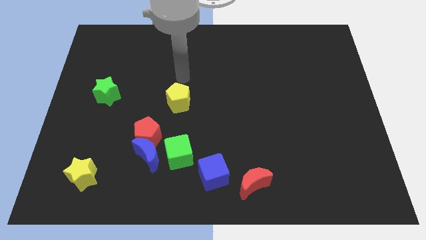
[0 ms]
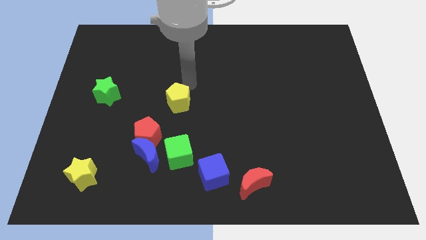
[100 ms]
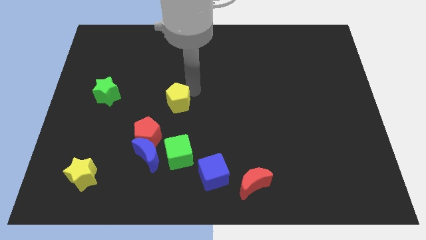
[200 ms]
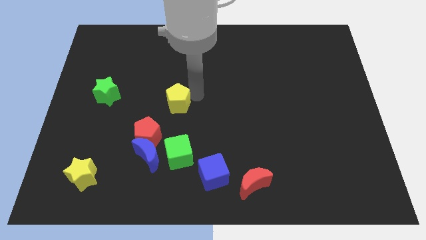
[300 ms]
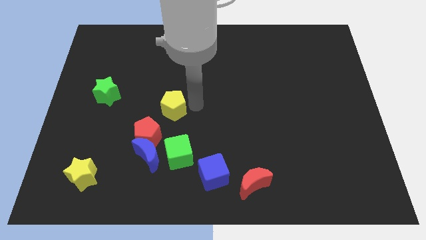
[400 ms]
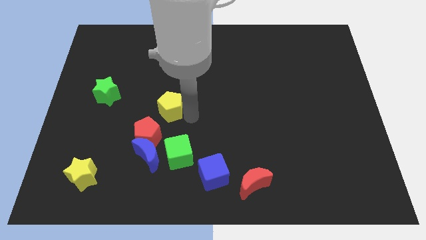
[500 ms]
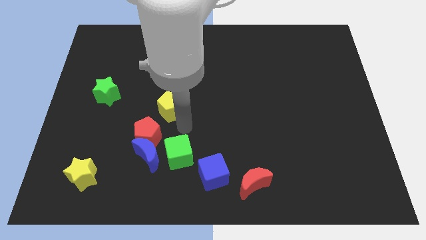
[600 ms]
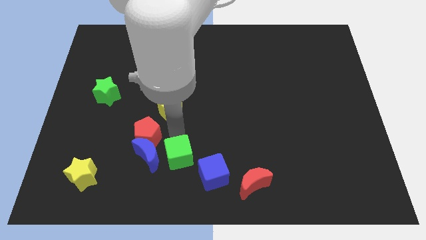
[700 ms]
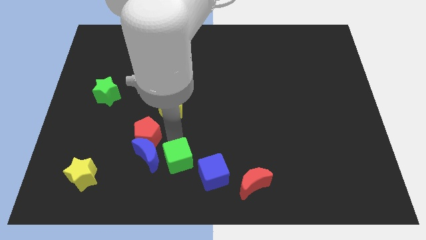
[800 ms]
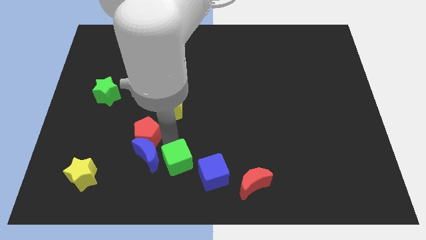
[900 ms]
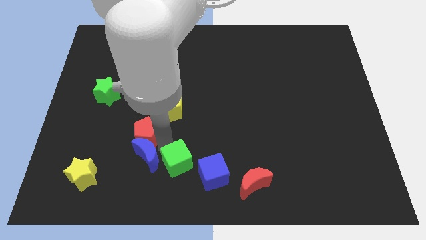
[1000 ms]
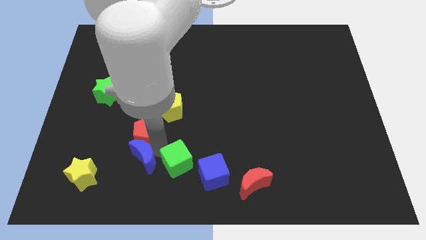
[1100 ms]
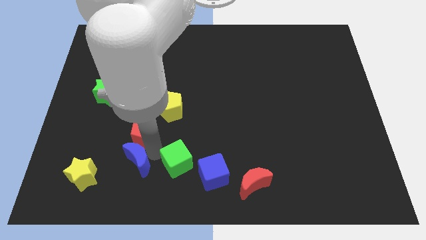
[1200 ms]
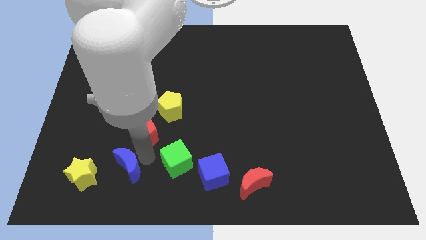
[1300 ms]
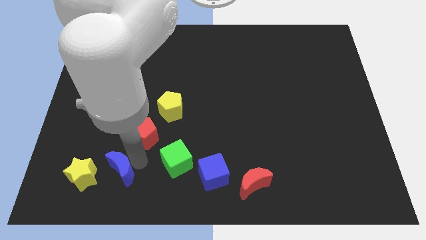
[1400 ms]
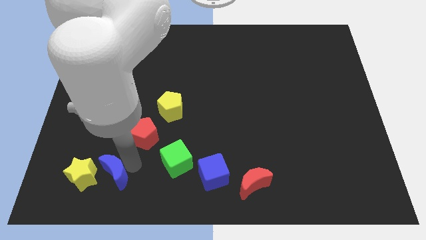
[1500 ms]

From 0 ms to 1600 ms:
pull the blue moon apart from the red pentagon and green cube

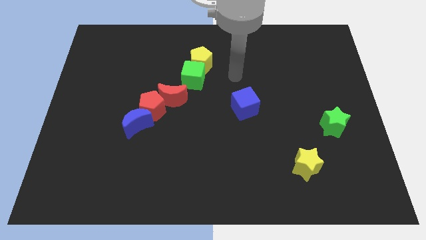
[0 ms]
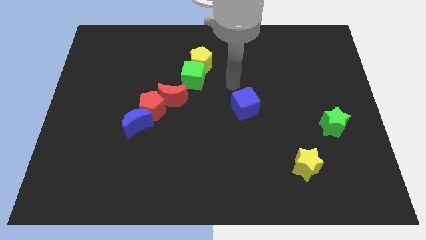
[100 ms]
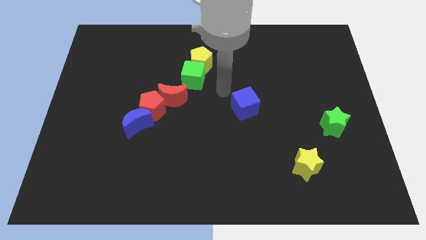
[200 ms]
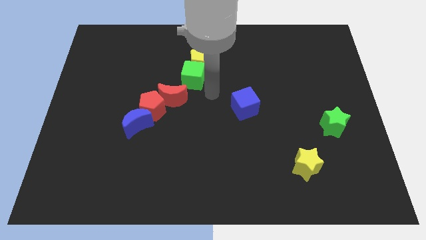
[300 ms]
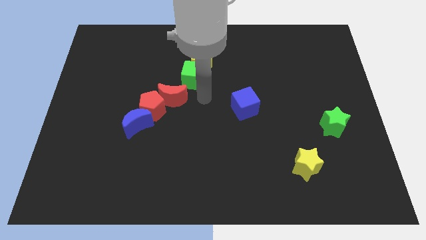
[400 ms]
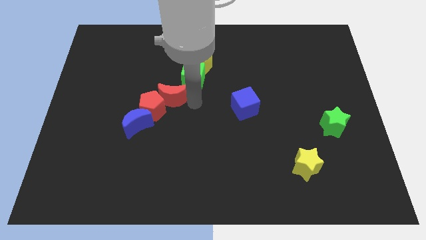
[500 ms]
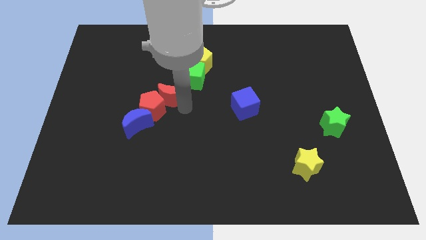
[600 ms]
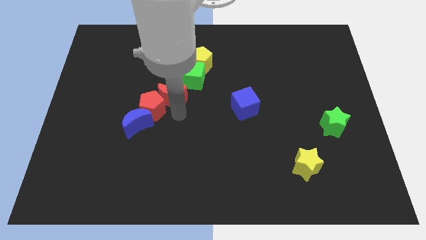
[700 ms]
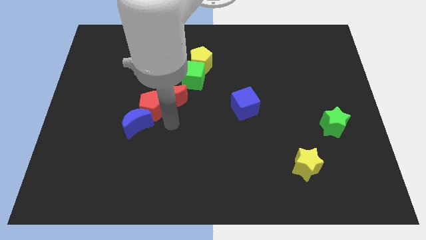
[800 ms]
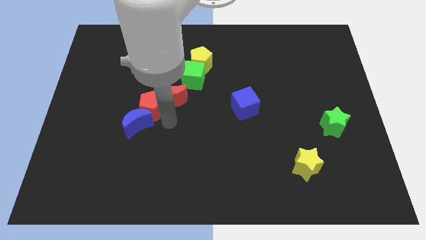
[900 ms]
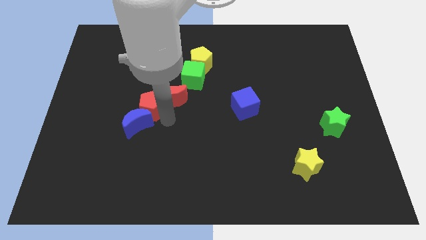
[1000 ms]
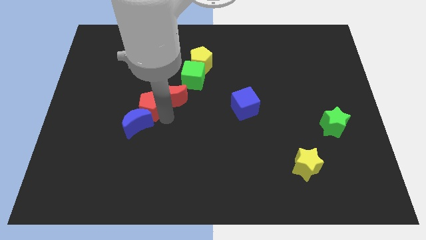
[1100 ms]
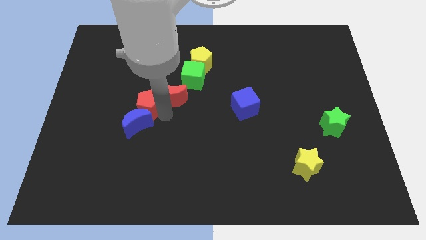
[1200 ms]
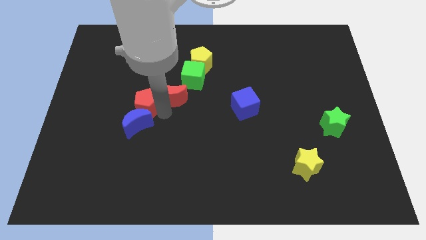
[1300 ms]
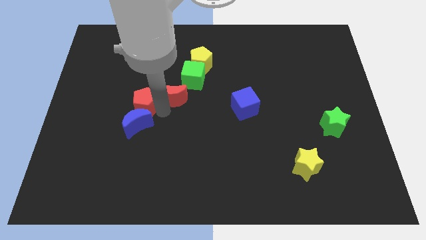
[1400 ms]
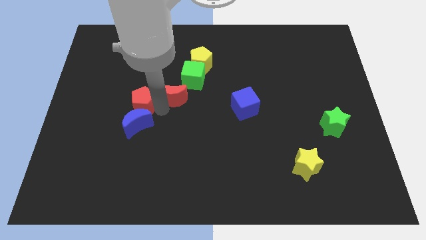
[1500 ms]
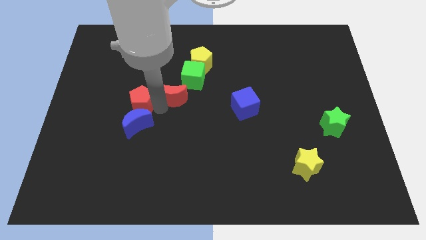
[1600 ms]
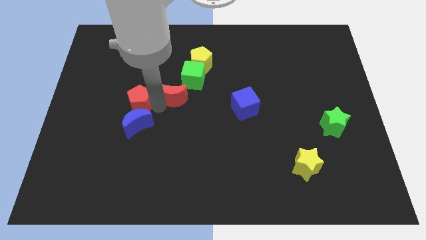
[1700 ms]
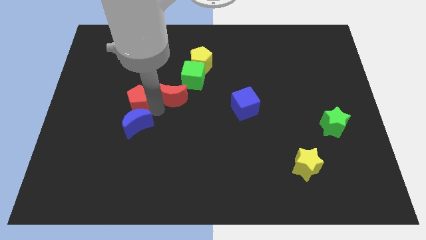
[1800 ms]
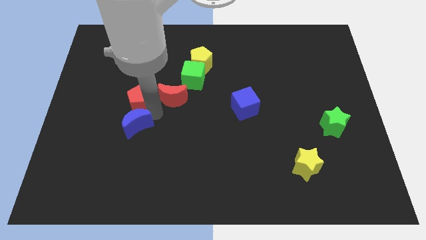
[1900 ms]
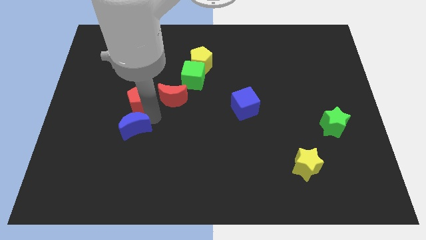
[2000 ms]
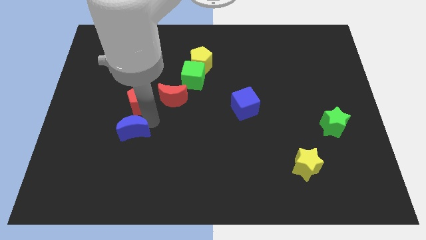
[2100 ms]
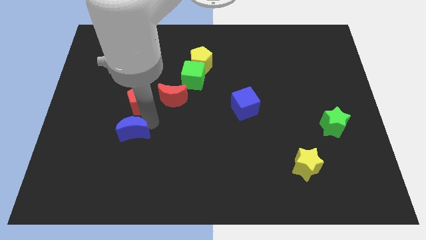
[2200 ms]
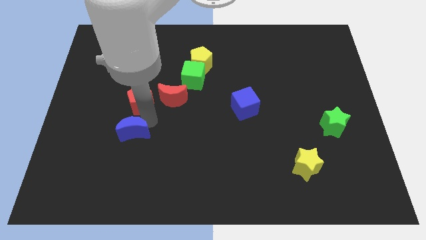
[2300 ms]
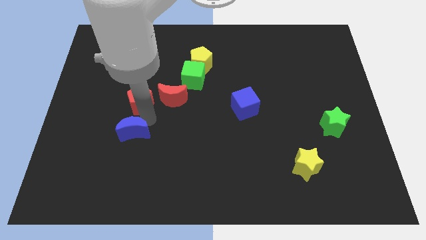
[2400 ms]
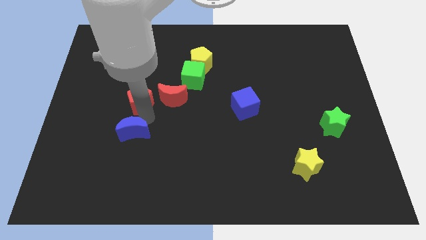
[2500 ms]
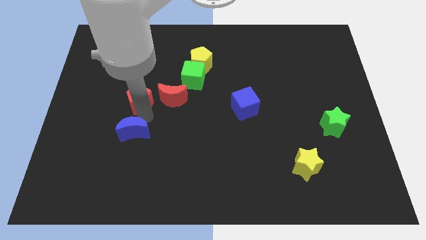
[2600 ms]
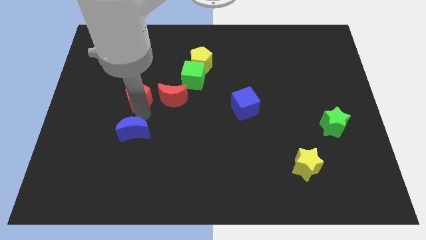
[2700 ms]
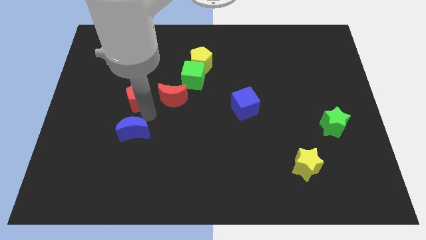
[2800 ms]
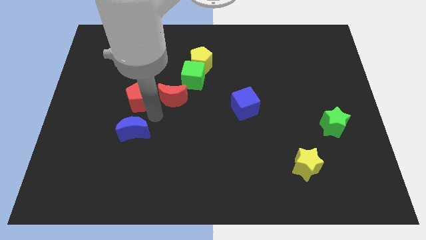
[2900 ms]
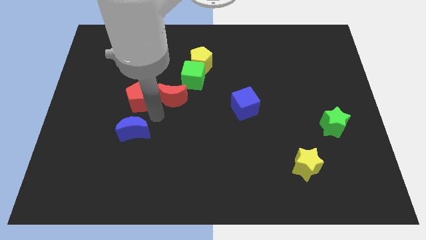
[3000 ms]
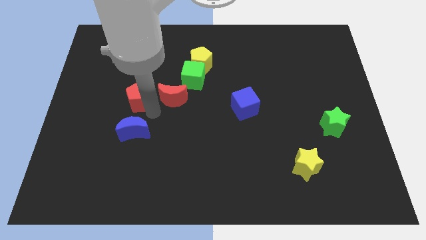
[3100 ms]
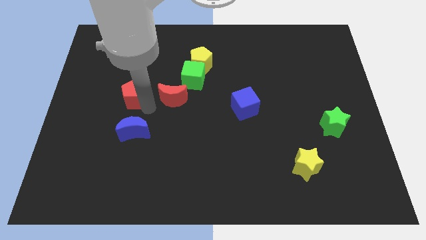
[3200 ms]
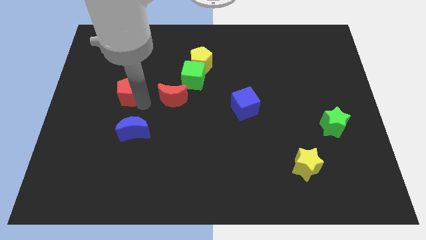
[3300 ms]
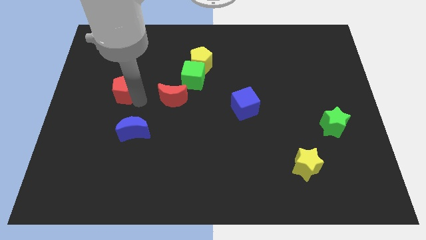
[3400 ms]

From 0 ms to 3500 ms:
separate the red pentagon from the red moon and blue moon

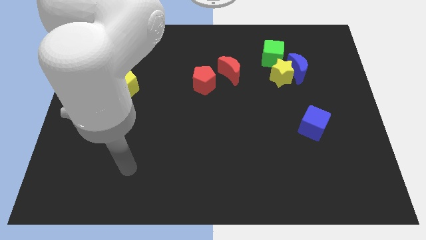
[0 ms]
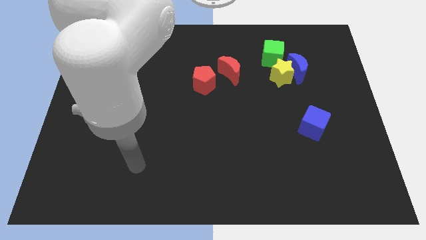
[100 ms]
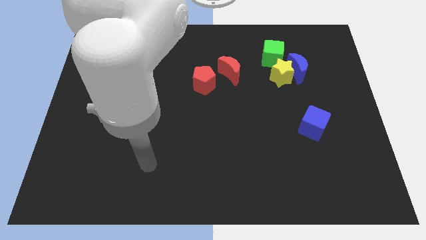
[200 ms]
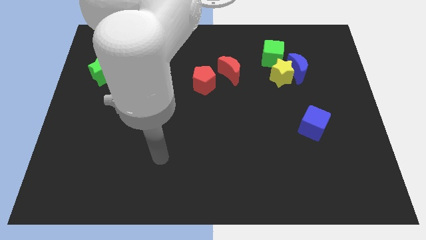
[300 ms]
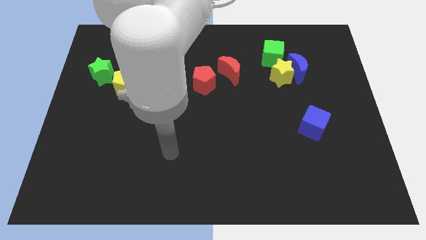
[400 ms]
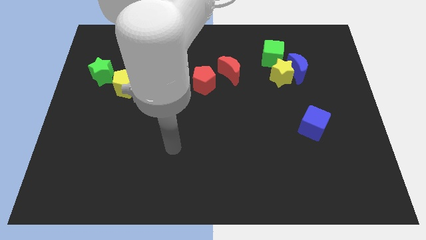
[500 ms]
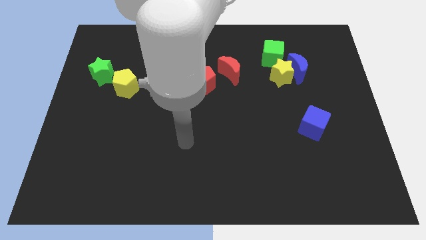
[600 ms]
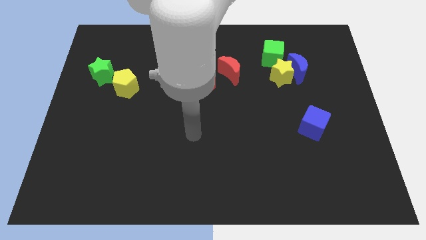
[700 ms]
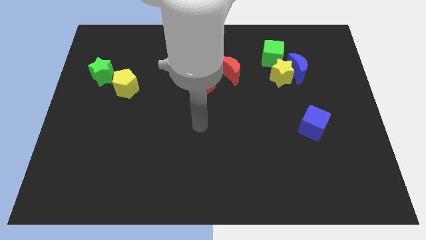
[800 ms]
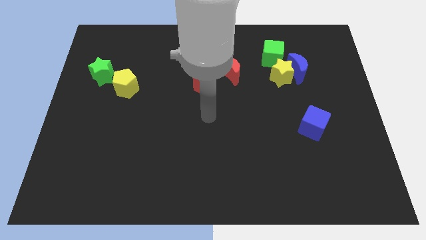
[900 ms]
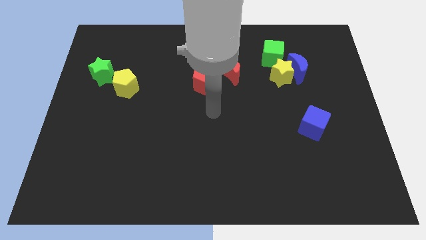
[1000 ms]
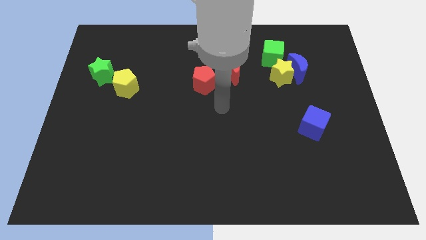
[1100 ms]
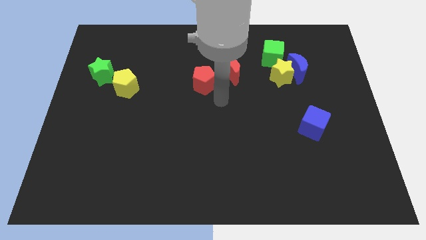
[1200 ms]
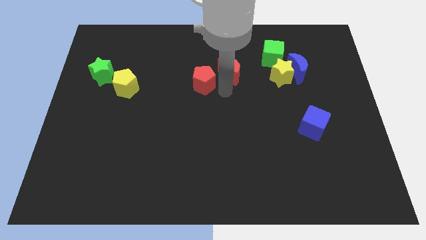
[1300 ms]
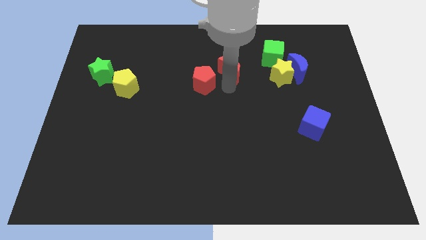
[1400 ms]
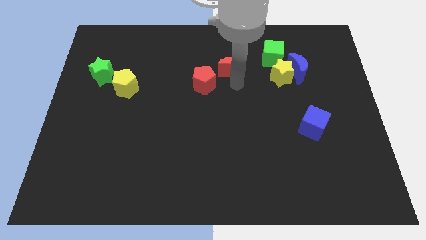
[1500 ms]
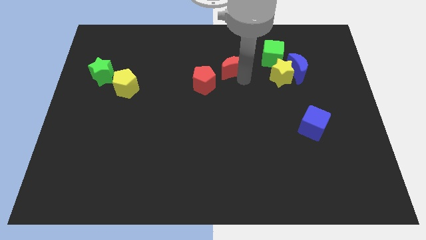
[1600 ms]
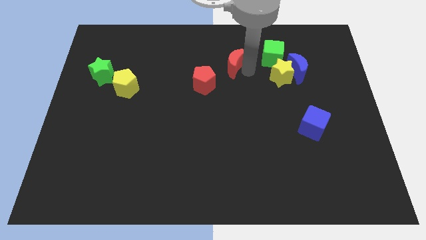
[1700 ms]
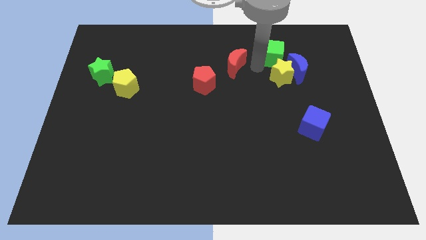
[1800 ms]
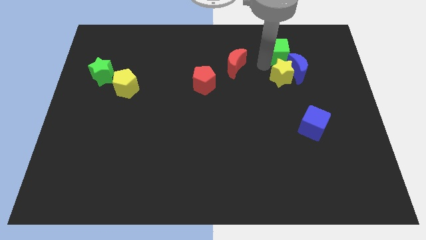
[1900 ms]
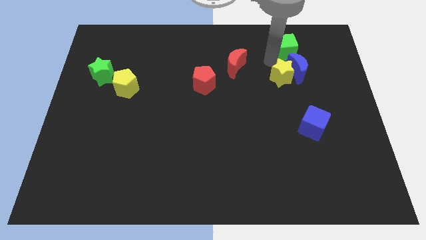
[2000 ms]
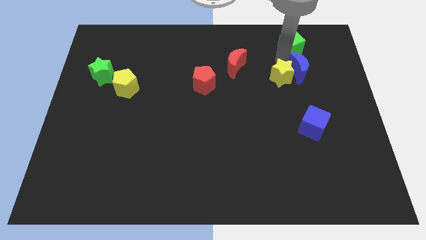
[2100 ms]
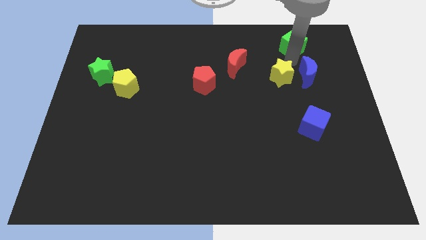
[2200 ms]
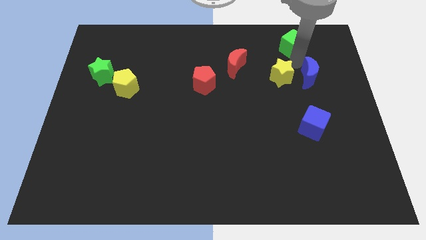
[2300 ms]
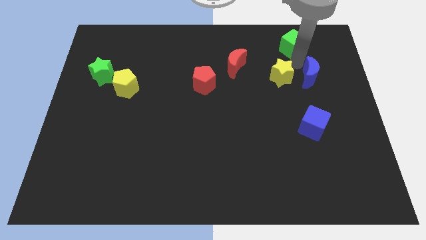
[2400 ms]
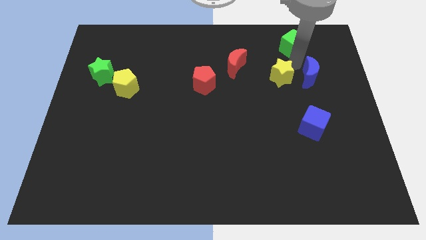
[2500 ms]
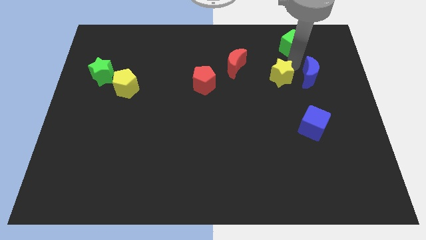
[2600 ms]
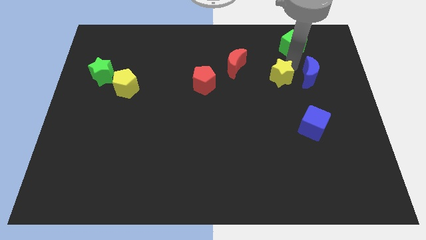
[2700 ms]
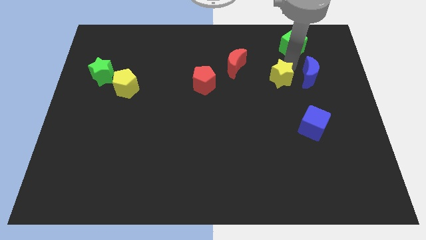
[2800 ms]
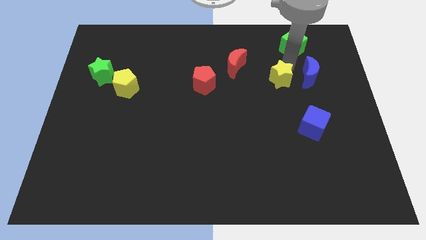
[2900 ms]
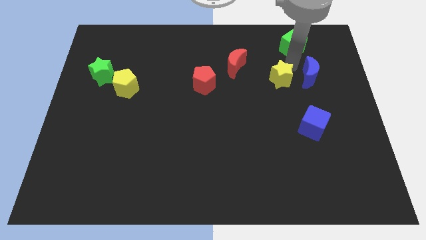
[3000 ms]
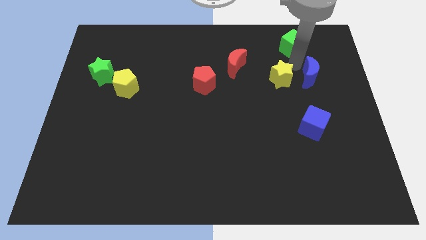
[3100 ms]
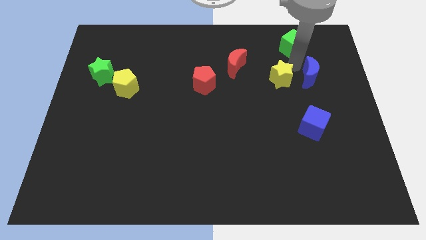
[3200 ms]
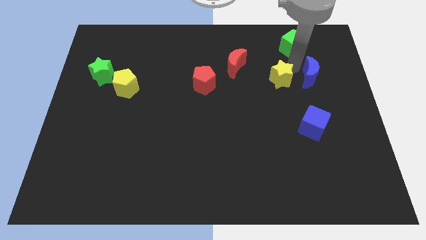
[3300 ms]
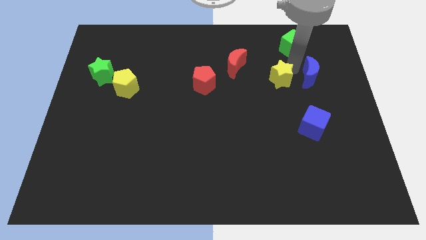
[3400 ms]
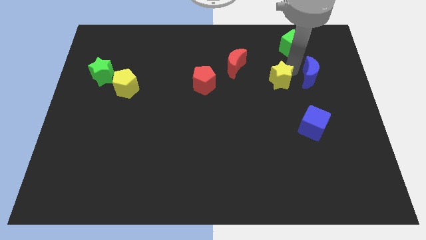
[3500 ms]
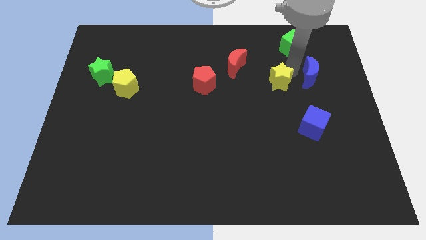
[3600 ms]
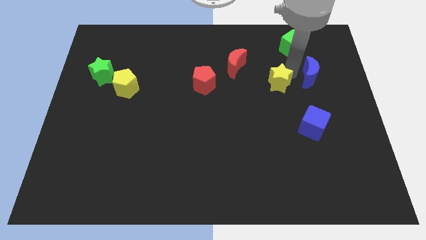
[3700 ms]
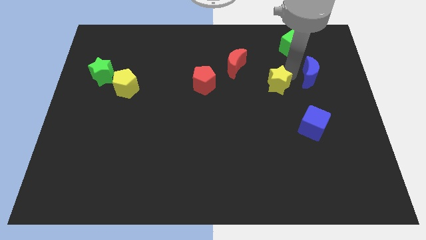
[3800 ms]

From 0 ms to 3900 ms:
move the yellow star away from the blue moon and green cube

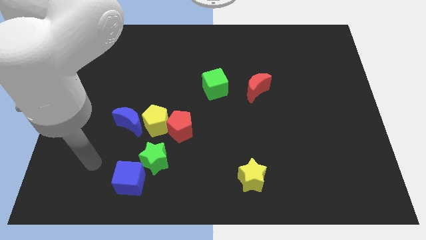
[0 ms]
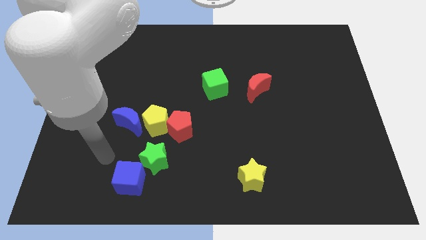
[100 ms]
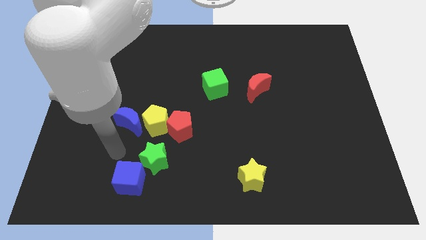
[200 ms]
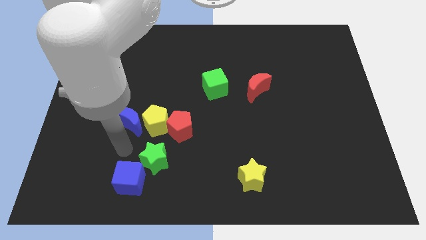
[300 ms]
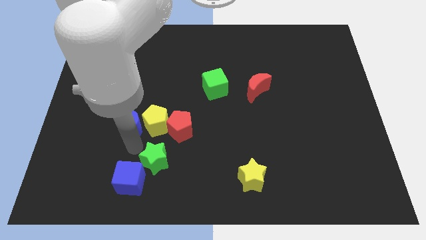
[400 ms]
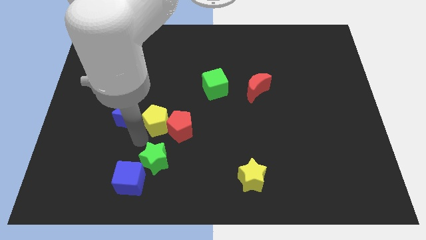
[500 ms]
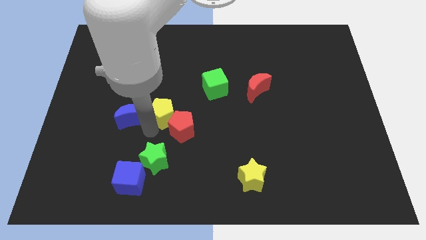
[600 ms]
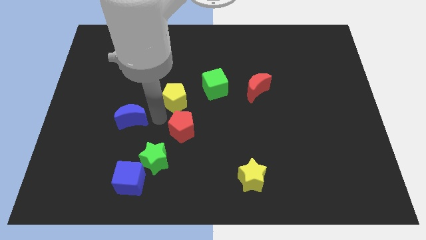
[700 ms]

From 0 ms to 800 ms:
pull the blue moon apart from the yellow pentagon
